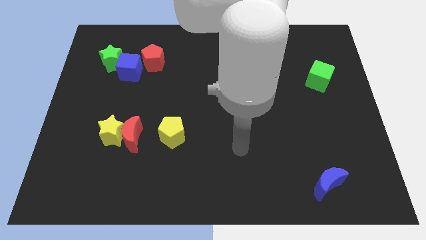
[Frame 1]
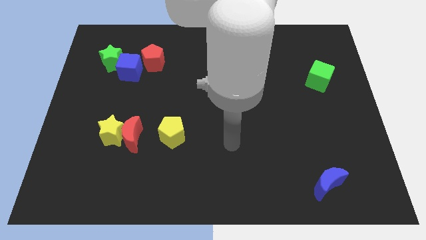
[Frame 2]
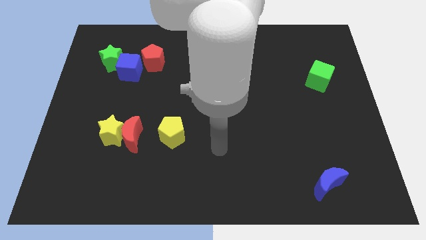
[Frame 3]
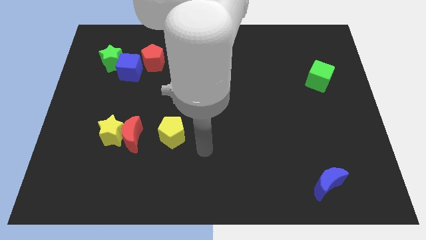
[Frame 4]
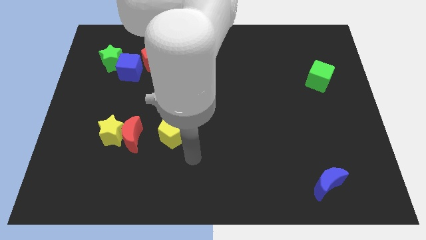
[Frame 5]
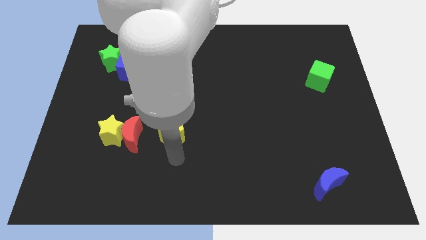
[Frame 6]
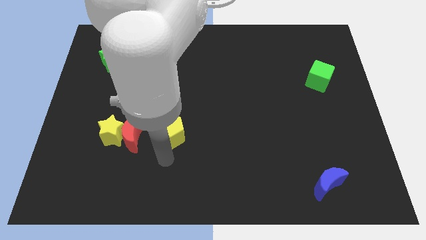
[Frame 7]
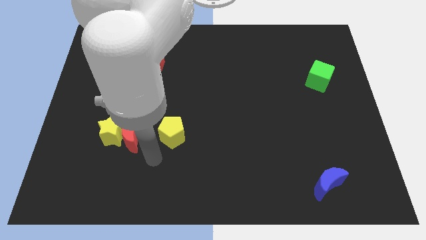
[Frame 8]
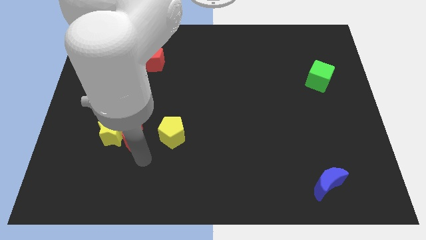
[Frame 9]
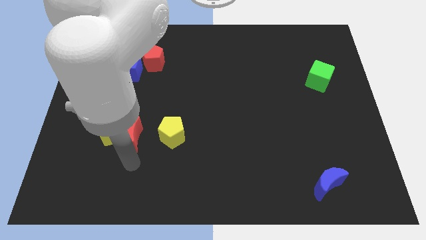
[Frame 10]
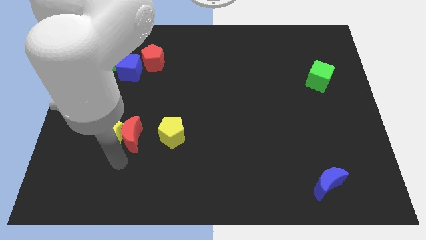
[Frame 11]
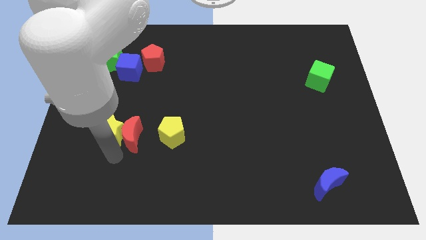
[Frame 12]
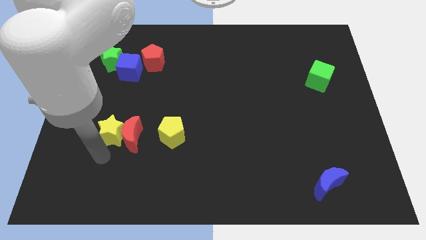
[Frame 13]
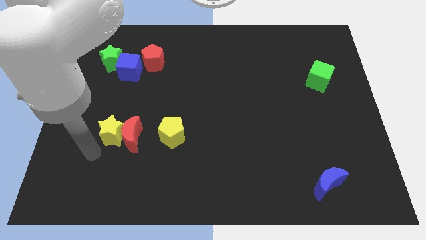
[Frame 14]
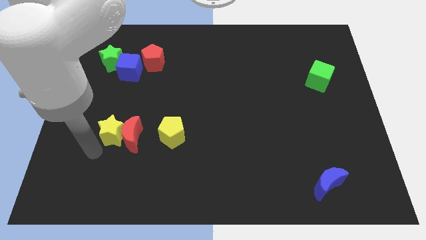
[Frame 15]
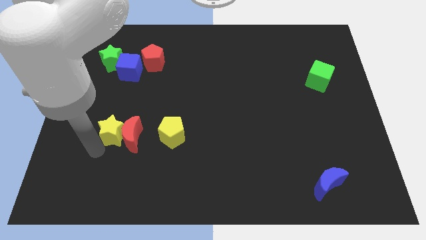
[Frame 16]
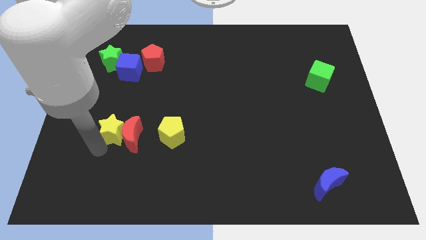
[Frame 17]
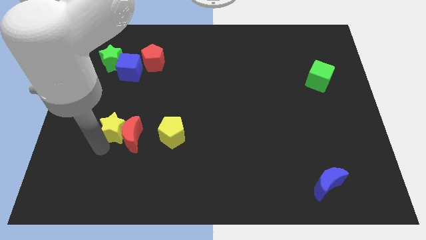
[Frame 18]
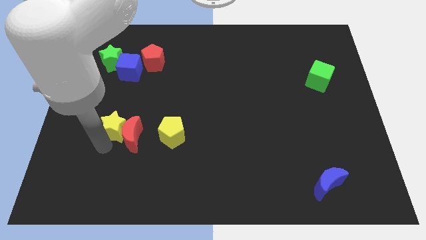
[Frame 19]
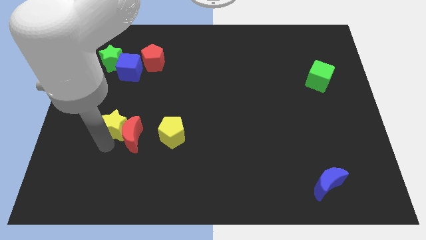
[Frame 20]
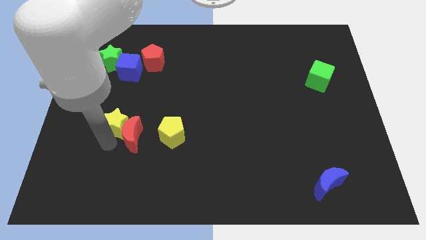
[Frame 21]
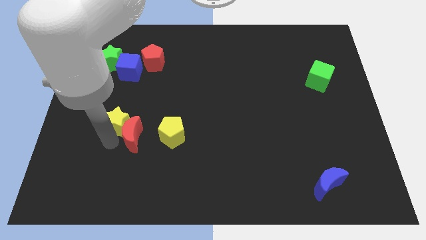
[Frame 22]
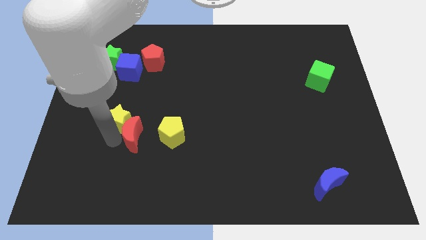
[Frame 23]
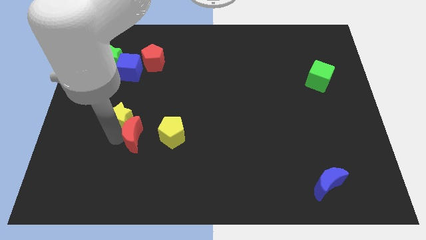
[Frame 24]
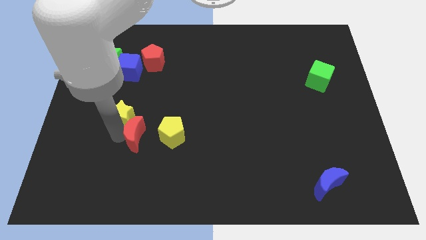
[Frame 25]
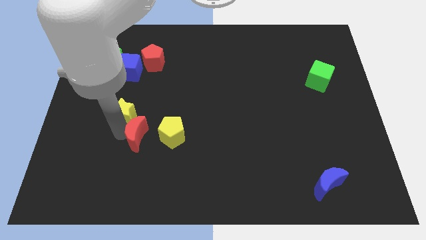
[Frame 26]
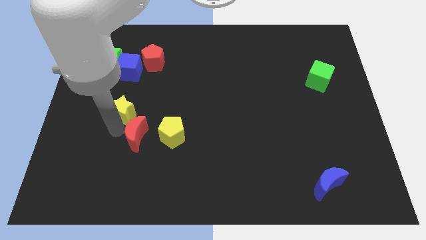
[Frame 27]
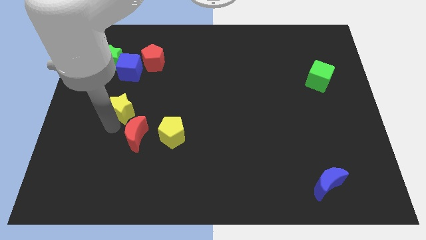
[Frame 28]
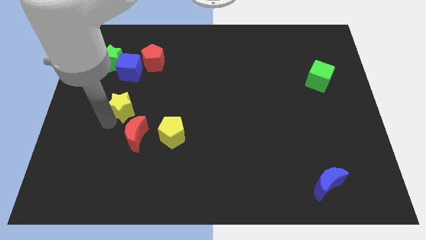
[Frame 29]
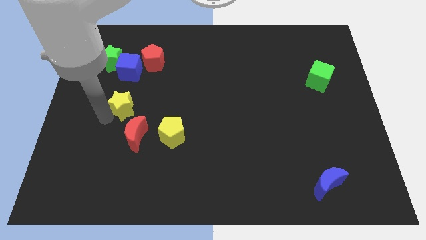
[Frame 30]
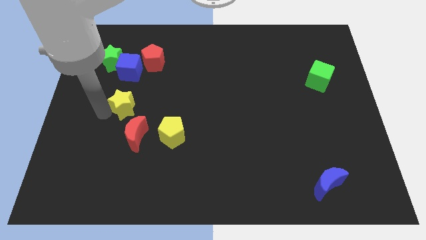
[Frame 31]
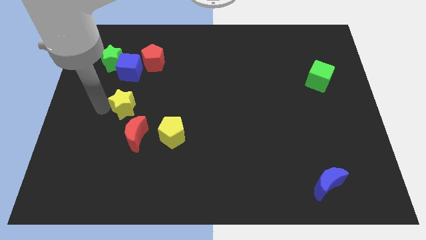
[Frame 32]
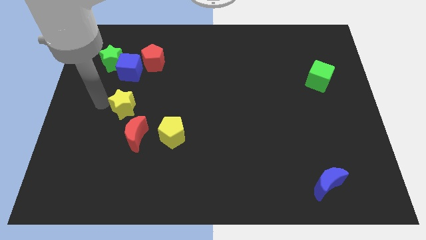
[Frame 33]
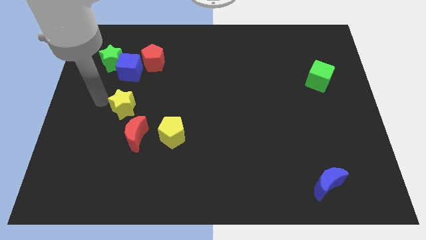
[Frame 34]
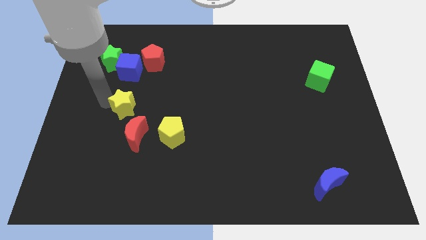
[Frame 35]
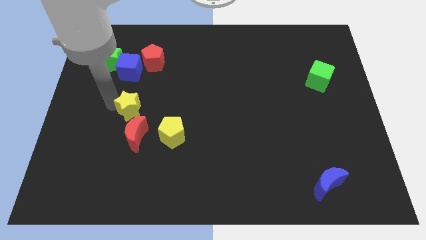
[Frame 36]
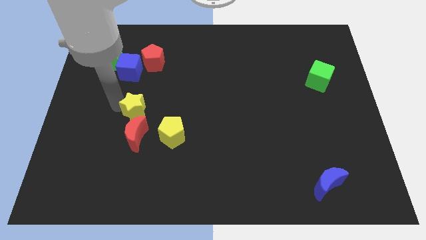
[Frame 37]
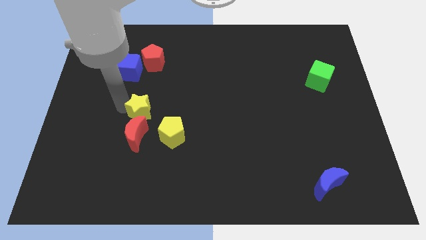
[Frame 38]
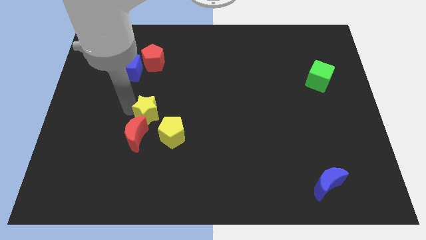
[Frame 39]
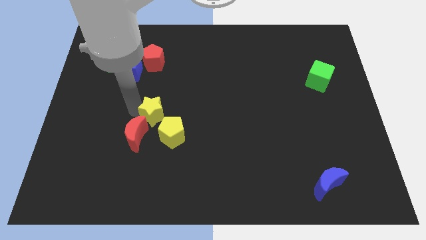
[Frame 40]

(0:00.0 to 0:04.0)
move the yellow star a little bit to the right

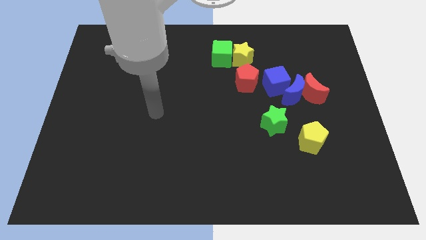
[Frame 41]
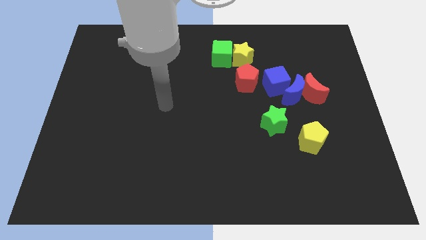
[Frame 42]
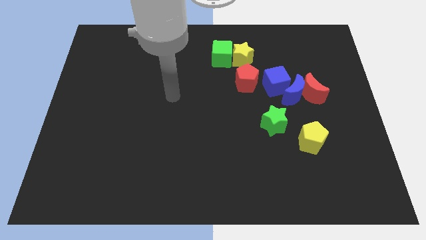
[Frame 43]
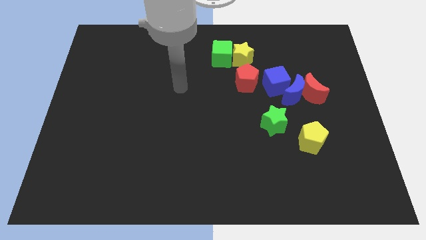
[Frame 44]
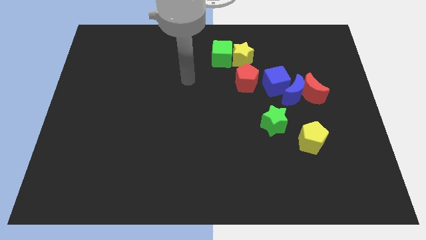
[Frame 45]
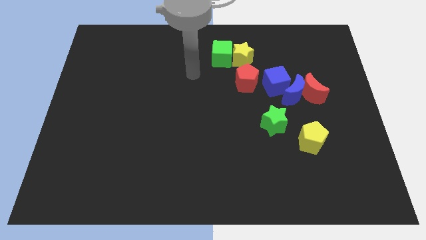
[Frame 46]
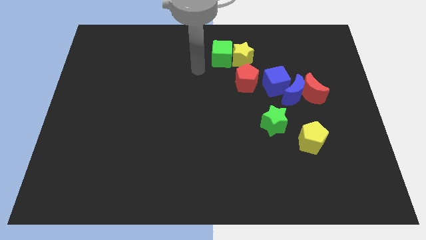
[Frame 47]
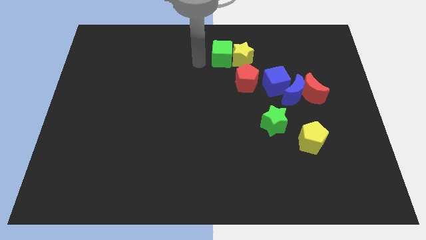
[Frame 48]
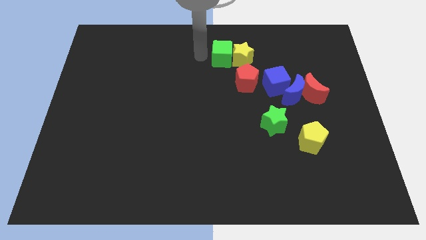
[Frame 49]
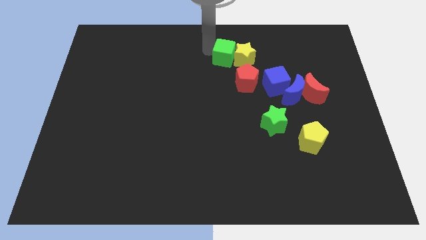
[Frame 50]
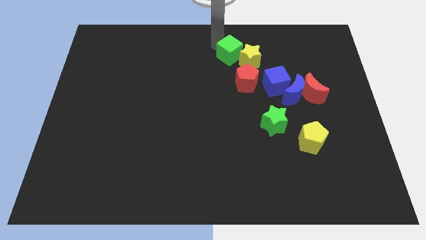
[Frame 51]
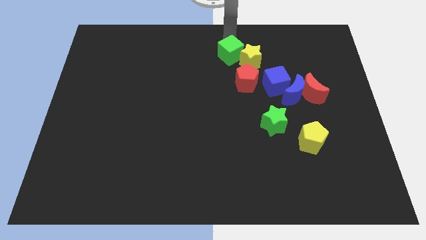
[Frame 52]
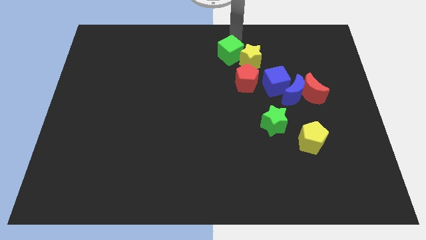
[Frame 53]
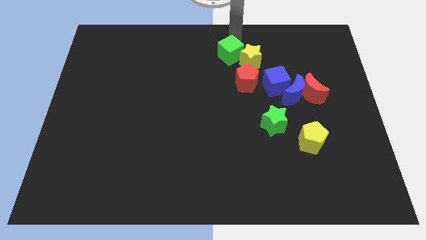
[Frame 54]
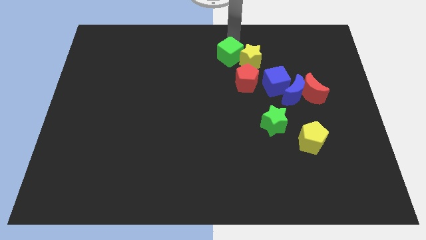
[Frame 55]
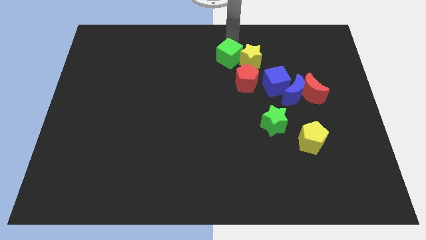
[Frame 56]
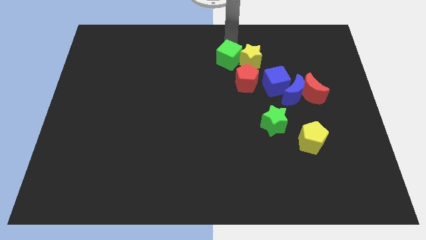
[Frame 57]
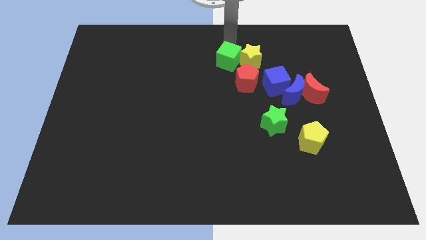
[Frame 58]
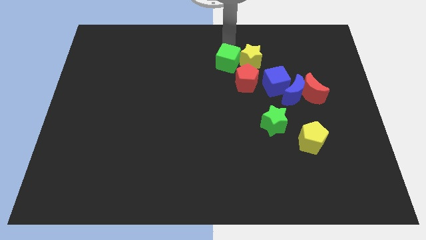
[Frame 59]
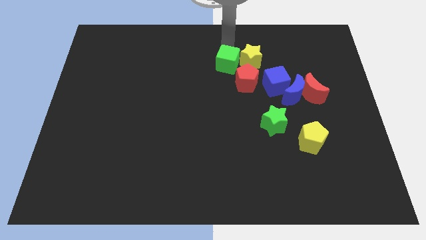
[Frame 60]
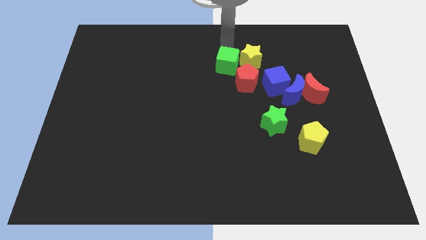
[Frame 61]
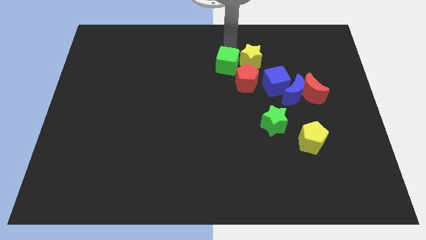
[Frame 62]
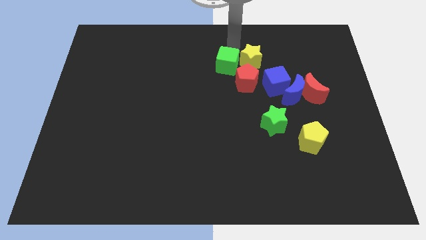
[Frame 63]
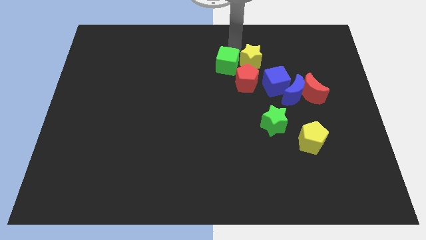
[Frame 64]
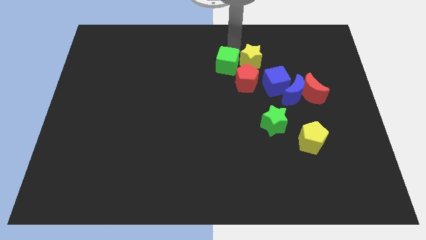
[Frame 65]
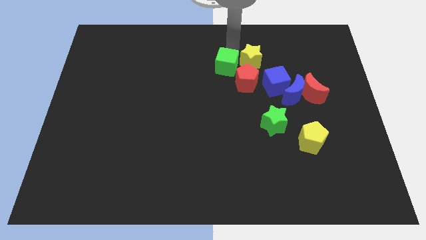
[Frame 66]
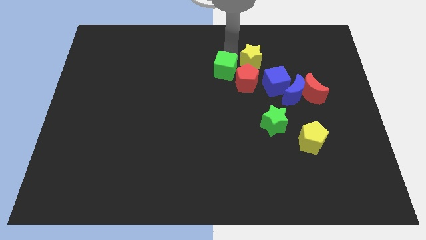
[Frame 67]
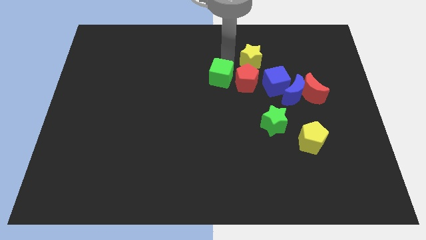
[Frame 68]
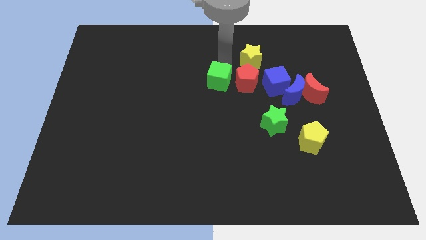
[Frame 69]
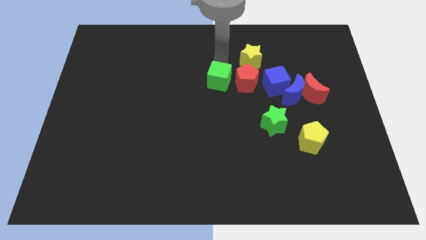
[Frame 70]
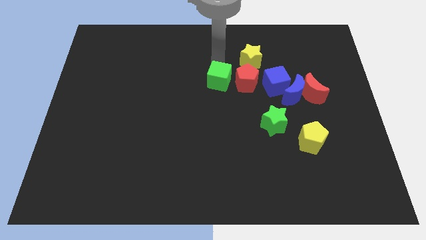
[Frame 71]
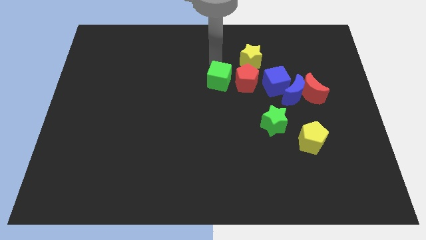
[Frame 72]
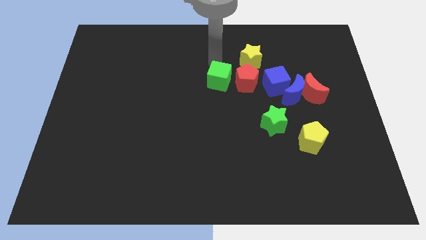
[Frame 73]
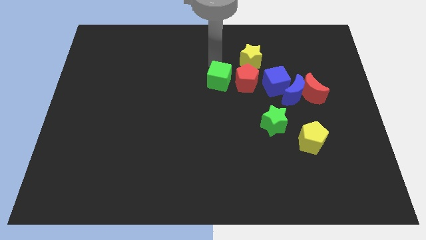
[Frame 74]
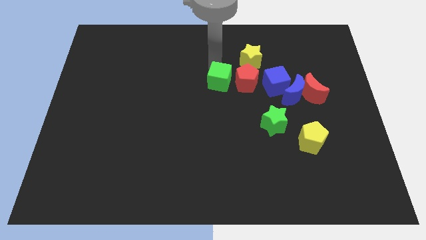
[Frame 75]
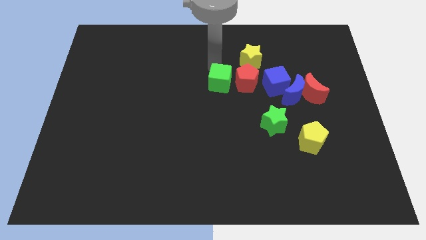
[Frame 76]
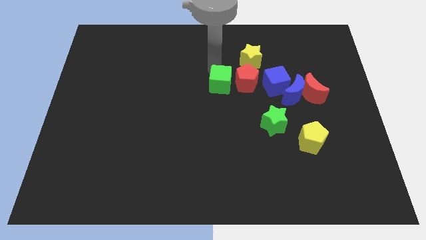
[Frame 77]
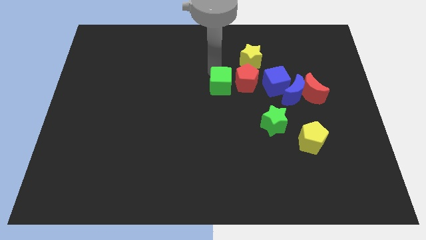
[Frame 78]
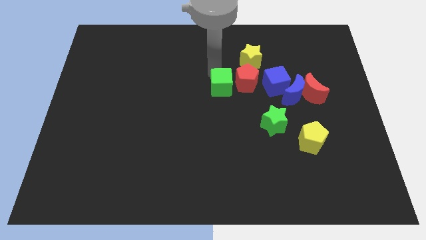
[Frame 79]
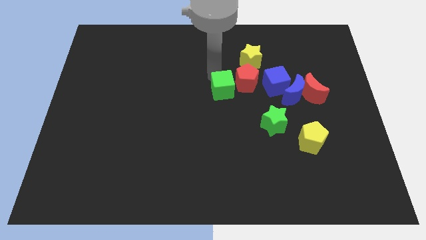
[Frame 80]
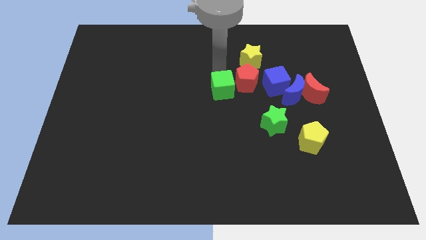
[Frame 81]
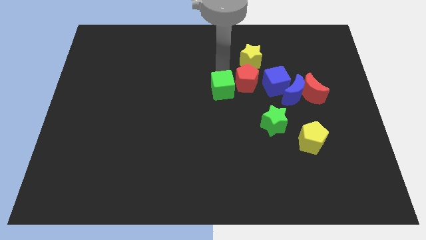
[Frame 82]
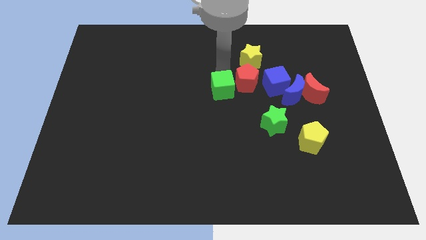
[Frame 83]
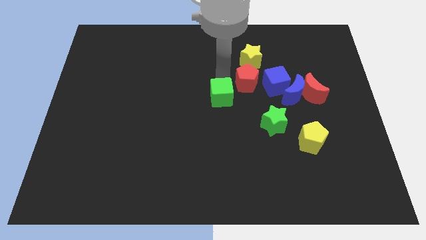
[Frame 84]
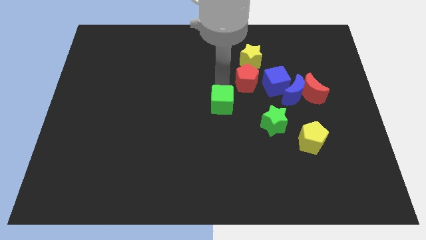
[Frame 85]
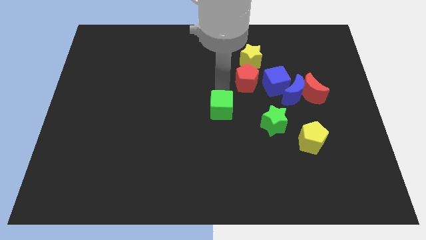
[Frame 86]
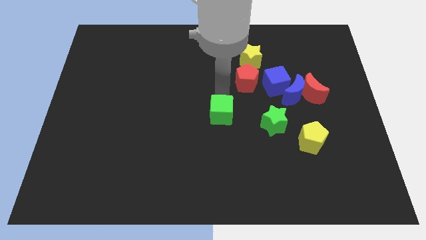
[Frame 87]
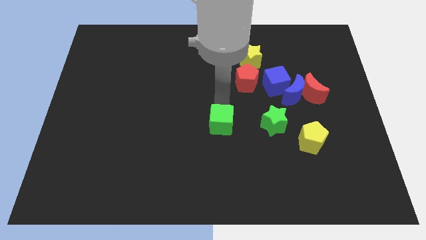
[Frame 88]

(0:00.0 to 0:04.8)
push the green cube downwards
